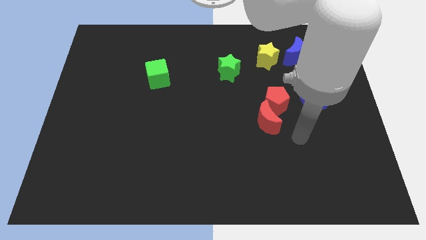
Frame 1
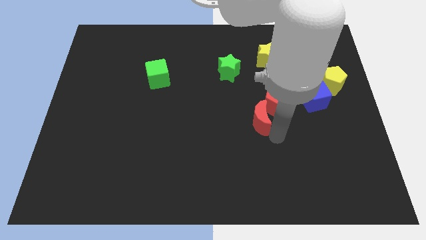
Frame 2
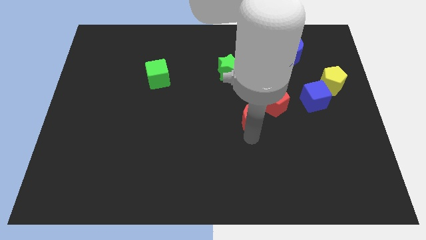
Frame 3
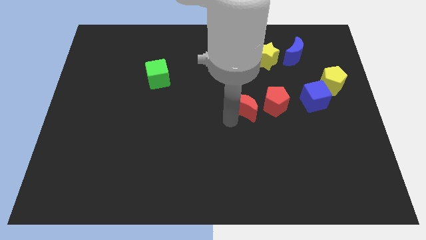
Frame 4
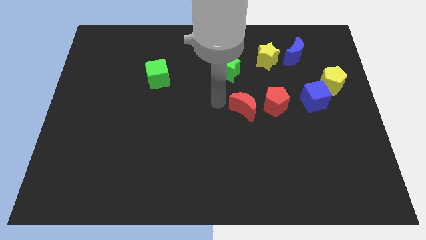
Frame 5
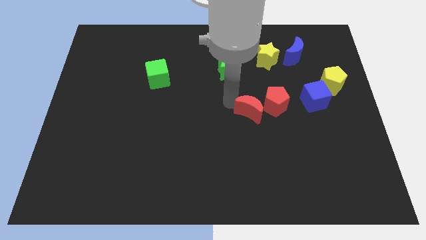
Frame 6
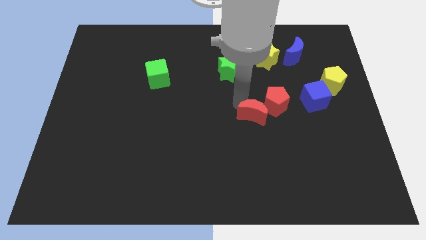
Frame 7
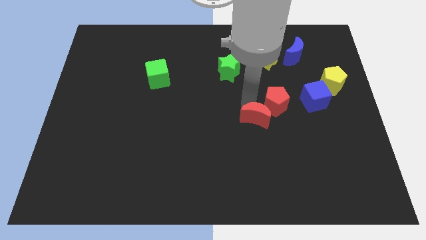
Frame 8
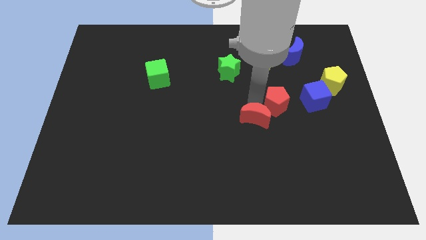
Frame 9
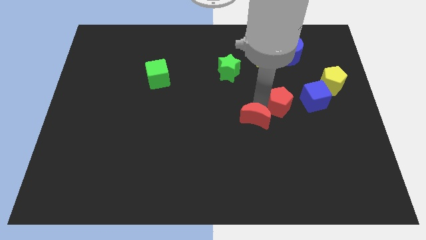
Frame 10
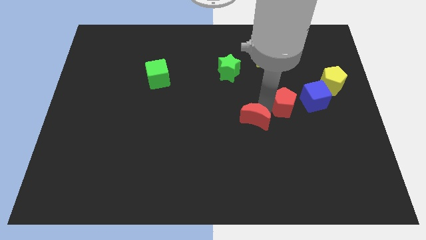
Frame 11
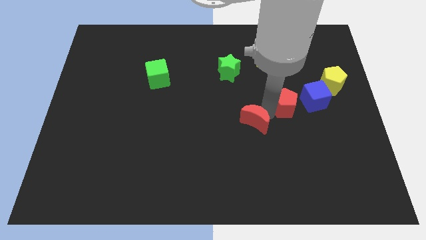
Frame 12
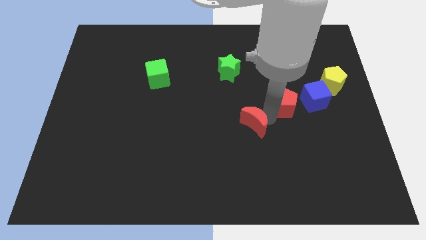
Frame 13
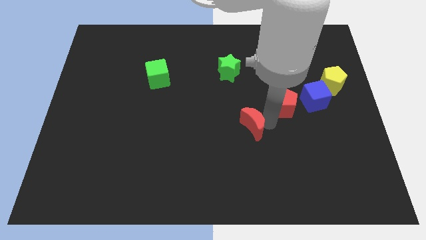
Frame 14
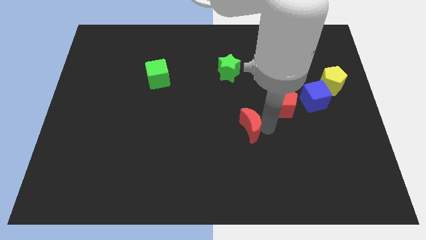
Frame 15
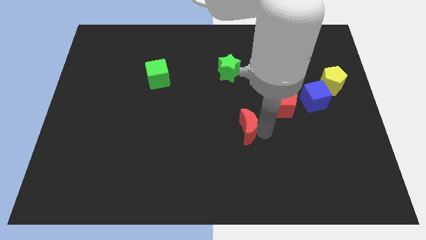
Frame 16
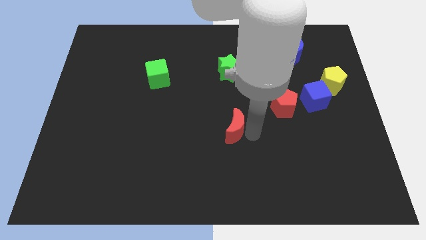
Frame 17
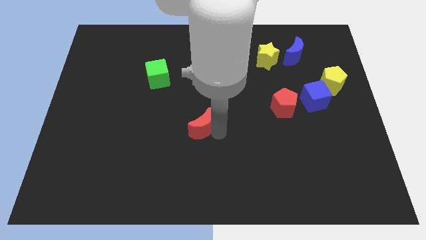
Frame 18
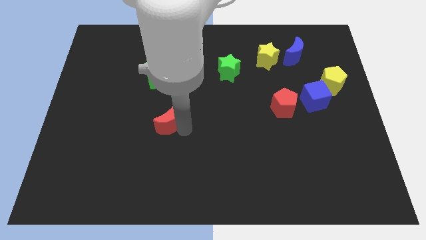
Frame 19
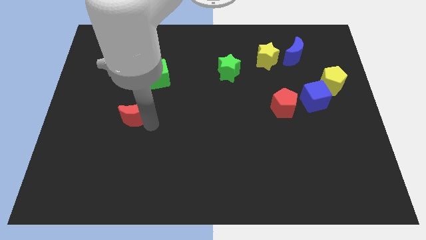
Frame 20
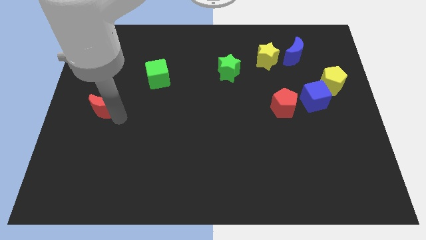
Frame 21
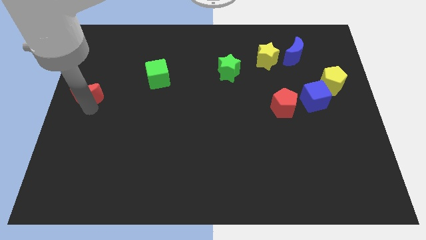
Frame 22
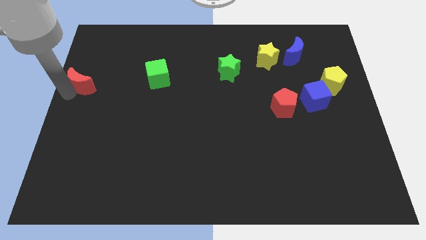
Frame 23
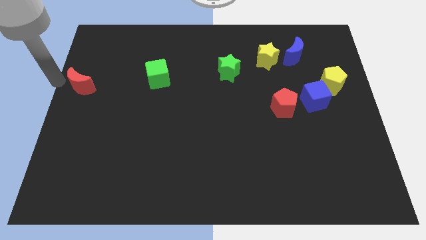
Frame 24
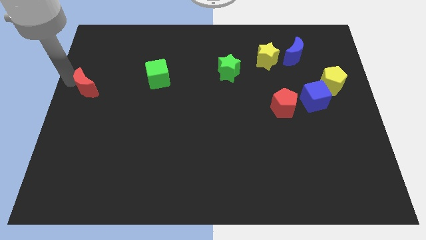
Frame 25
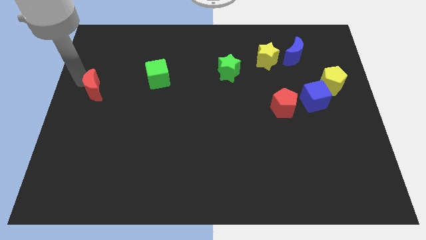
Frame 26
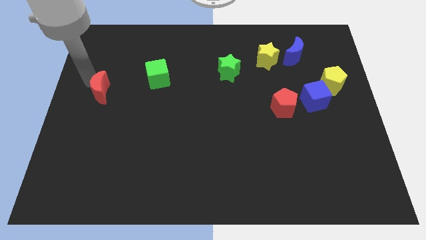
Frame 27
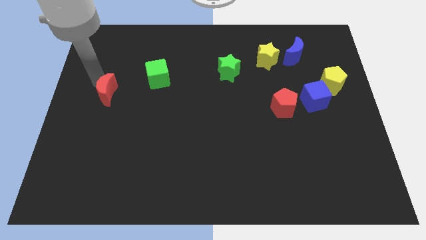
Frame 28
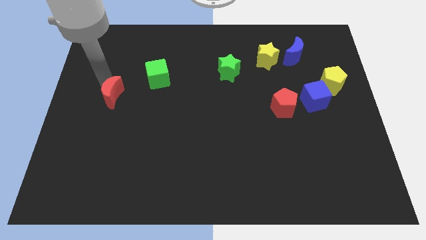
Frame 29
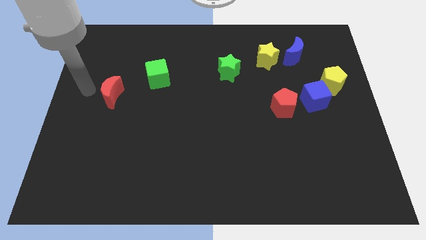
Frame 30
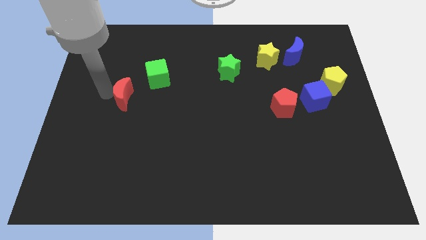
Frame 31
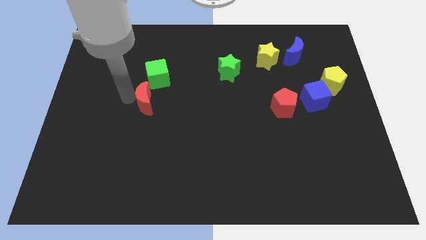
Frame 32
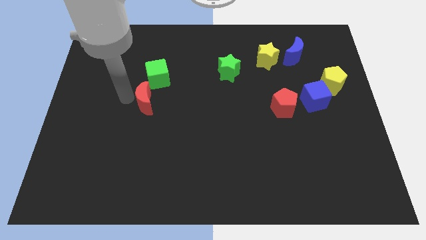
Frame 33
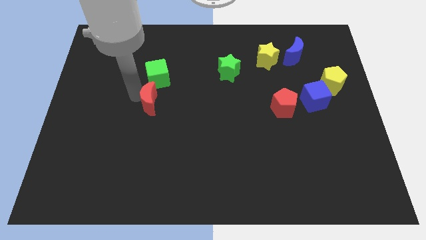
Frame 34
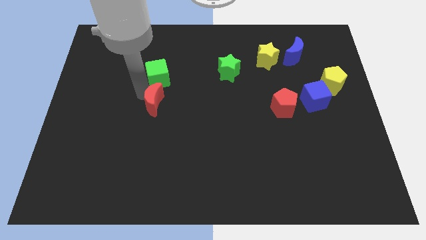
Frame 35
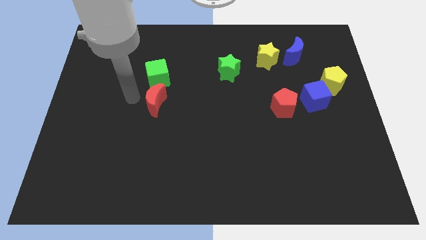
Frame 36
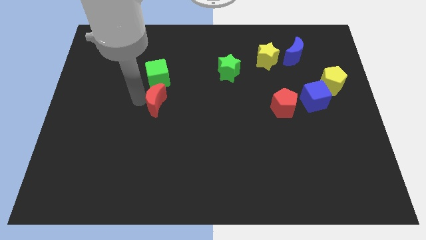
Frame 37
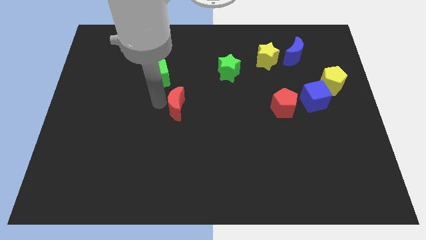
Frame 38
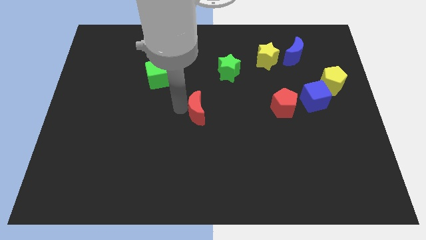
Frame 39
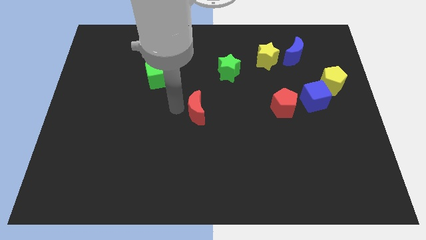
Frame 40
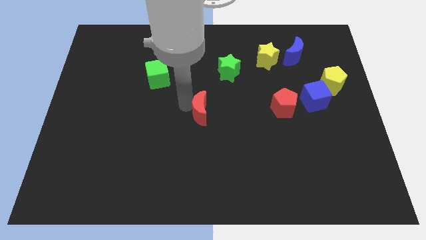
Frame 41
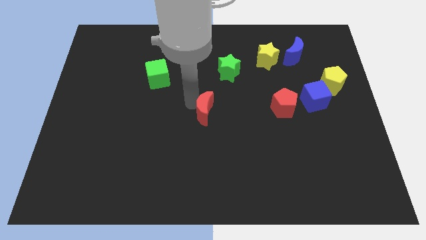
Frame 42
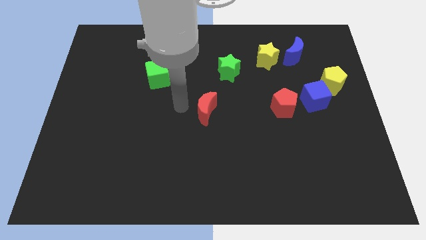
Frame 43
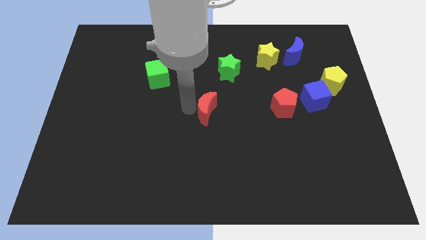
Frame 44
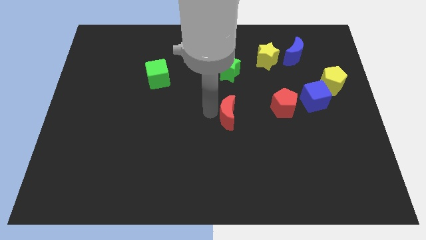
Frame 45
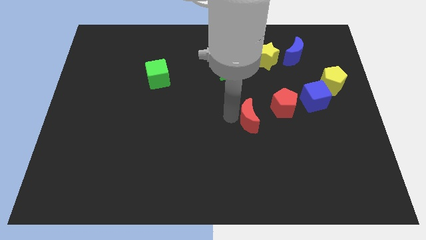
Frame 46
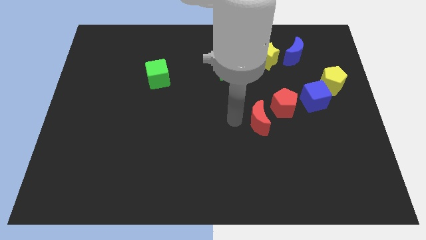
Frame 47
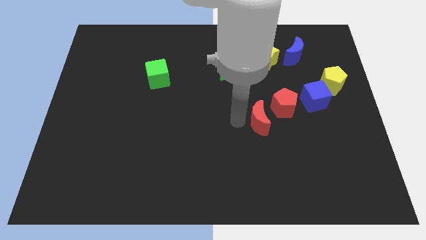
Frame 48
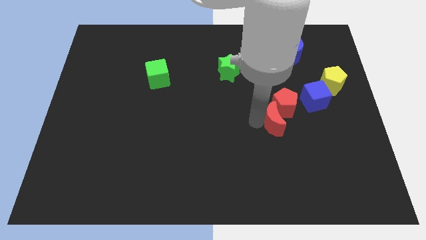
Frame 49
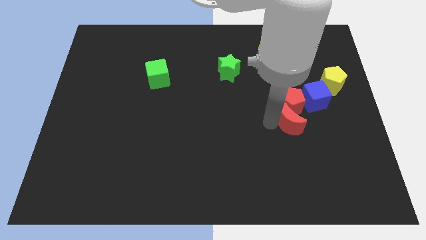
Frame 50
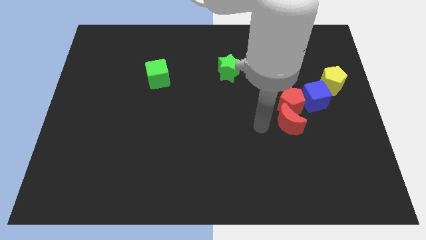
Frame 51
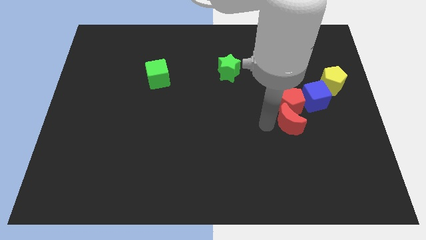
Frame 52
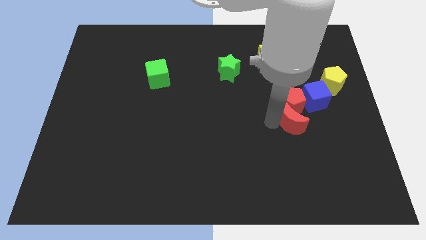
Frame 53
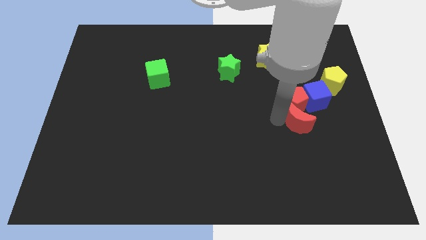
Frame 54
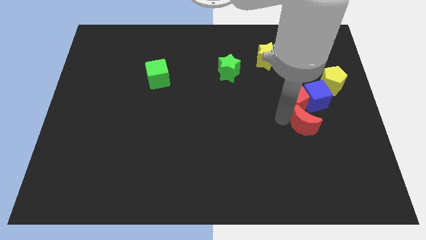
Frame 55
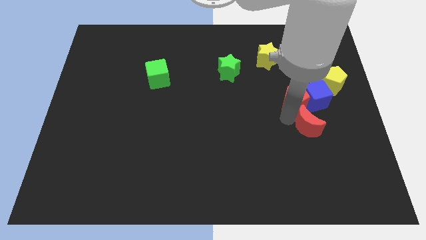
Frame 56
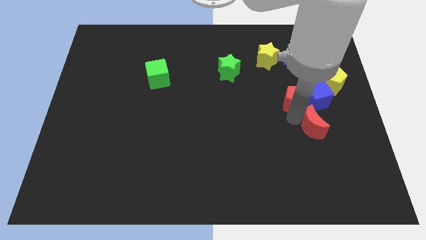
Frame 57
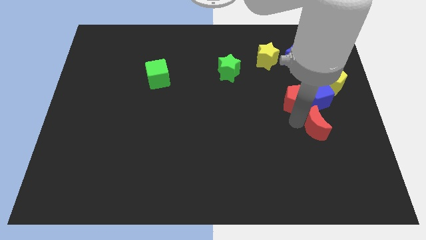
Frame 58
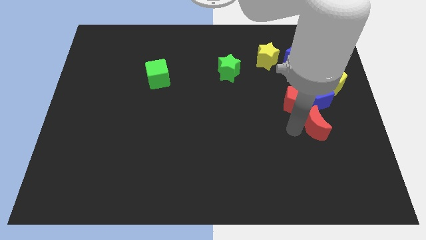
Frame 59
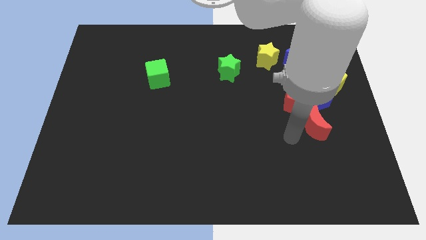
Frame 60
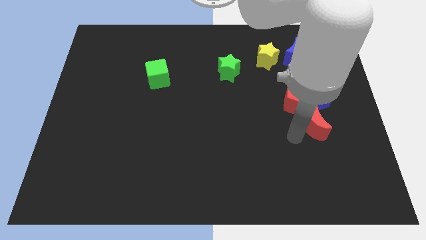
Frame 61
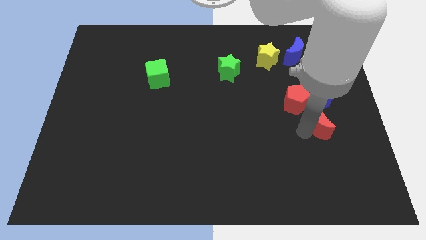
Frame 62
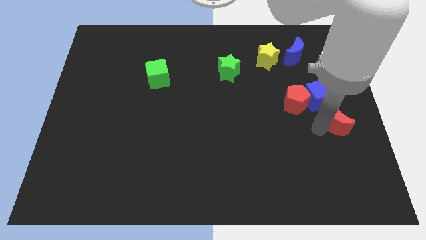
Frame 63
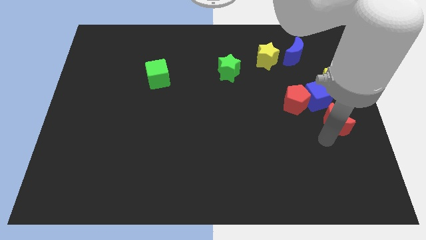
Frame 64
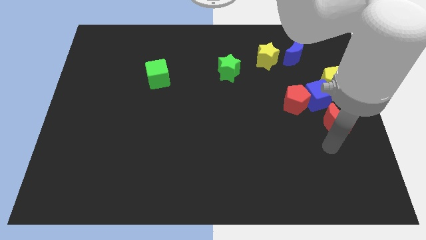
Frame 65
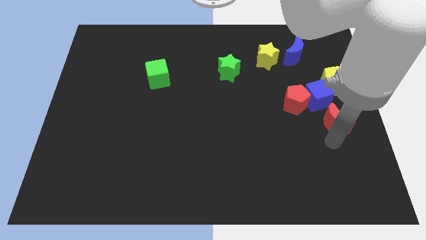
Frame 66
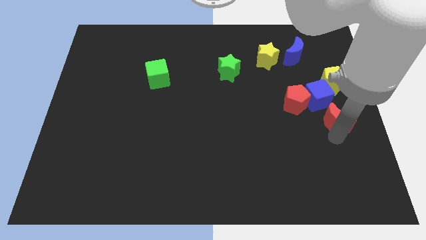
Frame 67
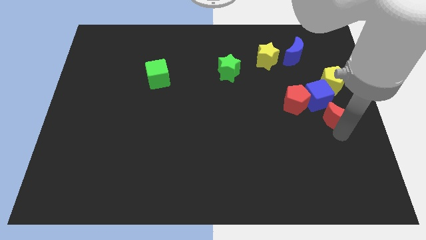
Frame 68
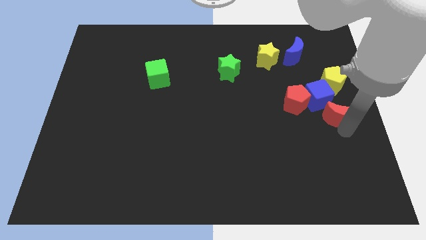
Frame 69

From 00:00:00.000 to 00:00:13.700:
slide the red moon just right of the red pentagon
